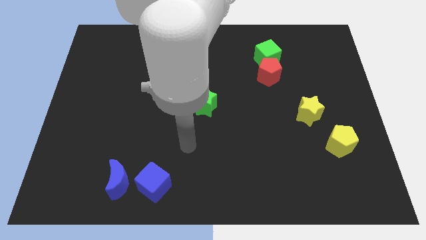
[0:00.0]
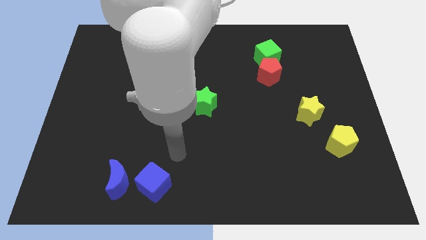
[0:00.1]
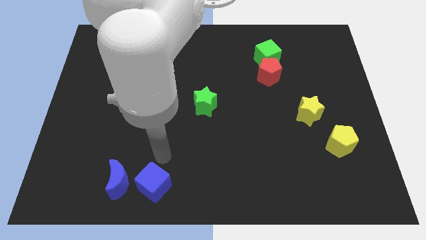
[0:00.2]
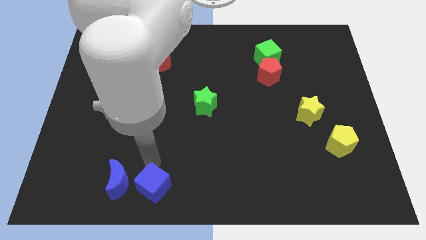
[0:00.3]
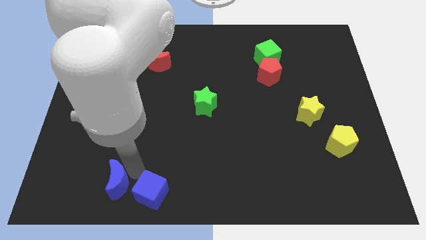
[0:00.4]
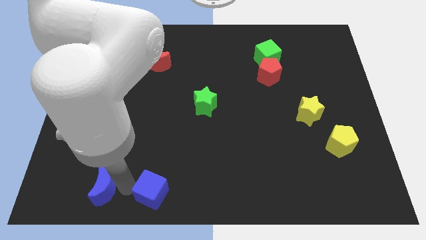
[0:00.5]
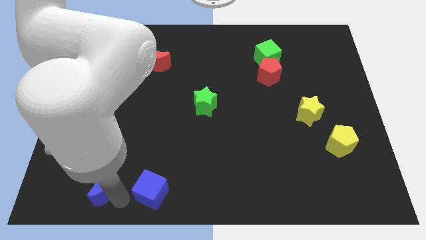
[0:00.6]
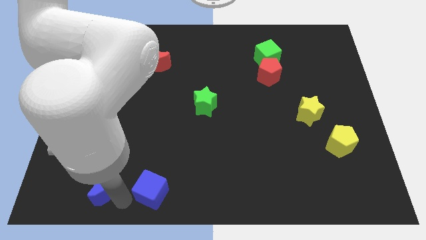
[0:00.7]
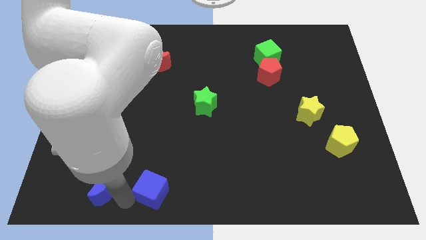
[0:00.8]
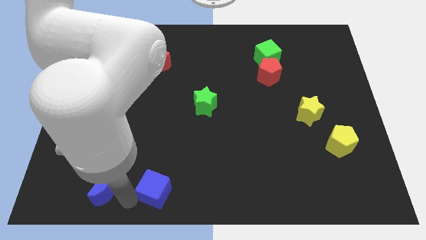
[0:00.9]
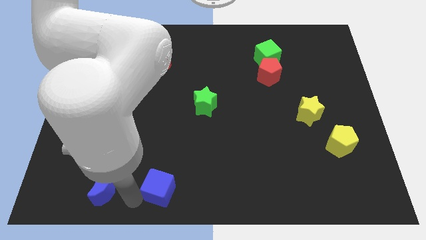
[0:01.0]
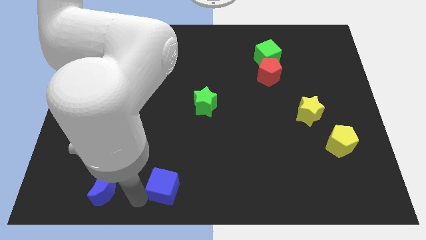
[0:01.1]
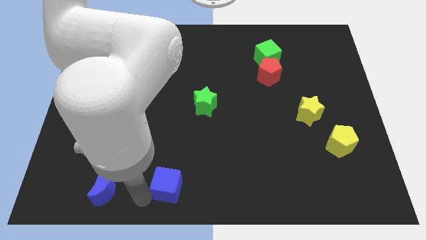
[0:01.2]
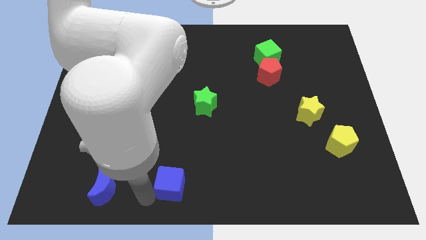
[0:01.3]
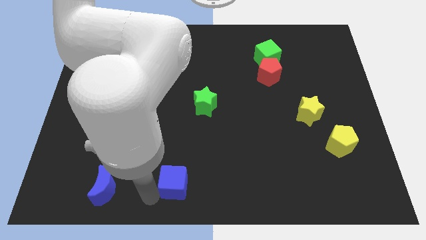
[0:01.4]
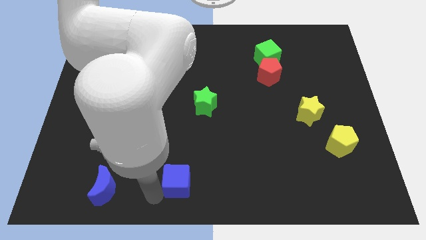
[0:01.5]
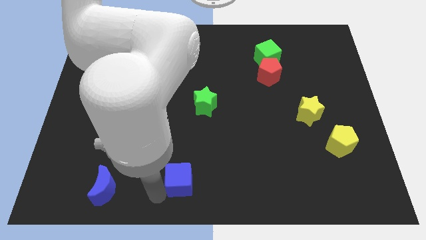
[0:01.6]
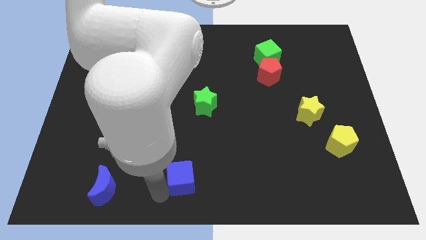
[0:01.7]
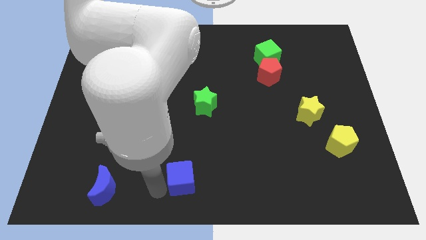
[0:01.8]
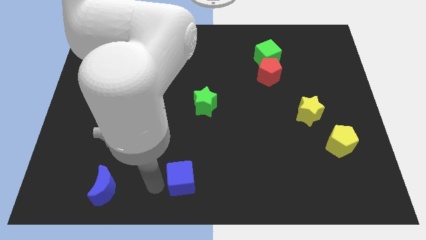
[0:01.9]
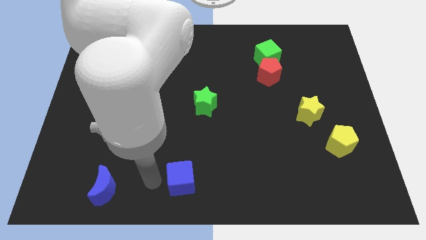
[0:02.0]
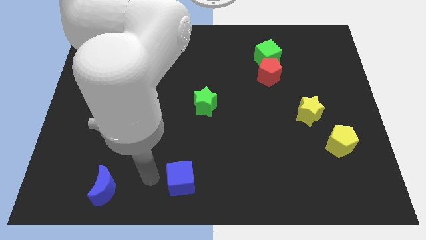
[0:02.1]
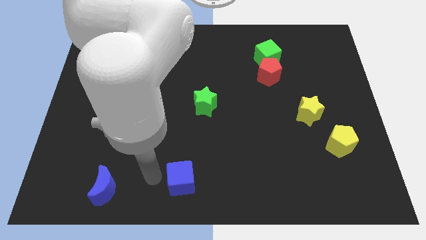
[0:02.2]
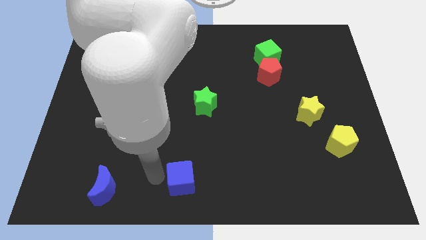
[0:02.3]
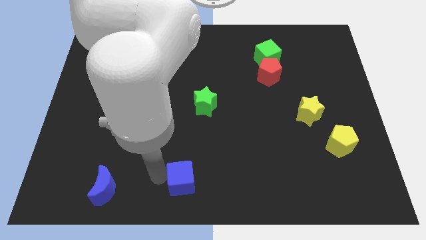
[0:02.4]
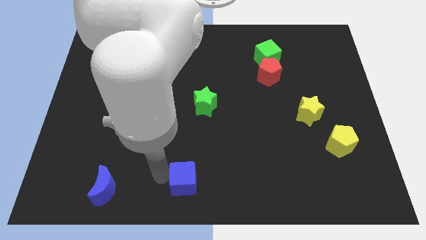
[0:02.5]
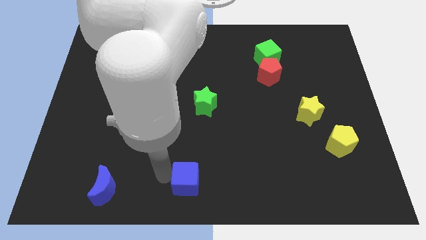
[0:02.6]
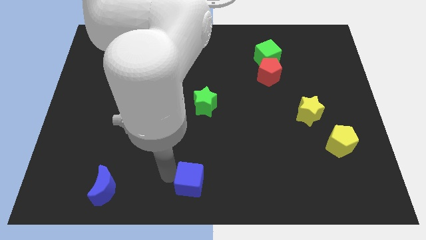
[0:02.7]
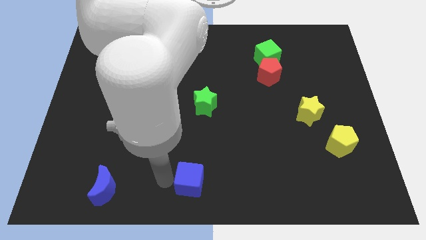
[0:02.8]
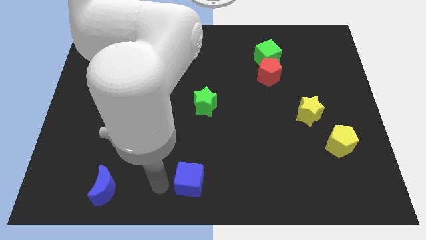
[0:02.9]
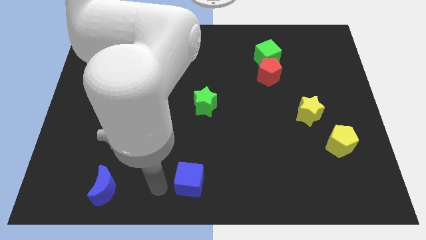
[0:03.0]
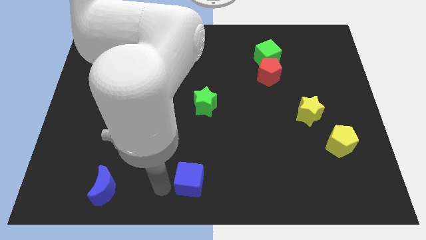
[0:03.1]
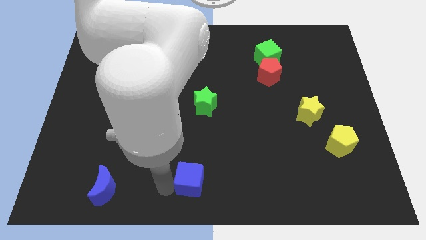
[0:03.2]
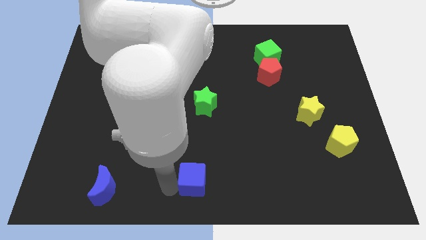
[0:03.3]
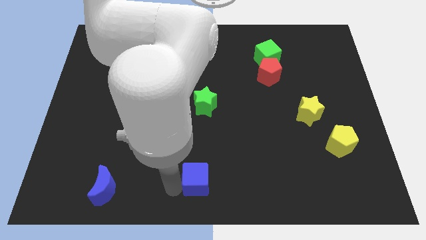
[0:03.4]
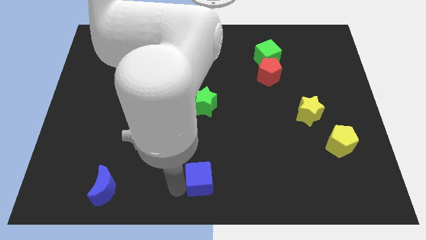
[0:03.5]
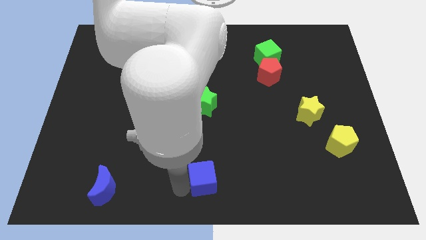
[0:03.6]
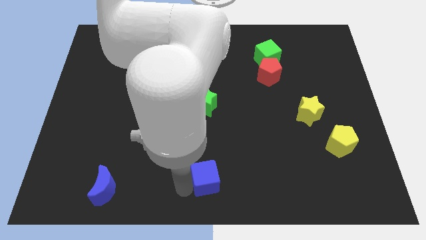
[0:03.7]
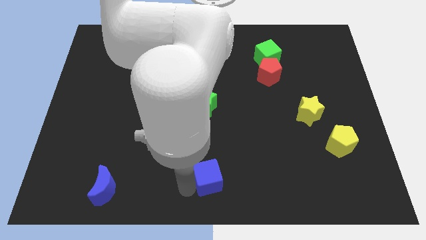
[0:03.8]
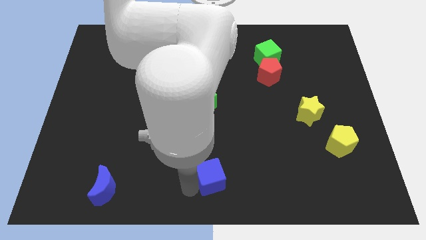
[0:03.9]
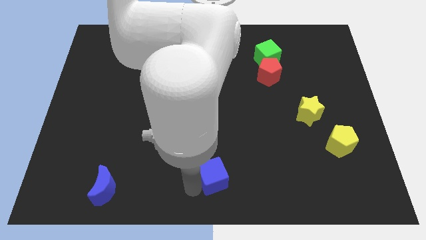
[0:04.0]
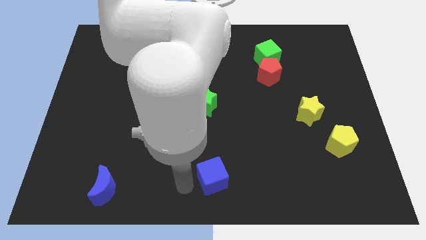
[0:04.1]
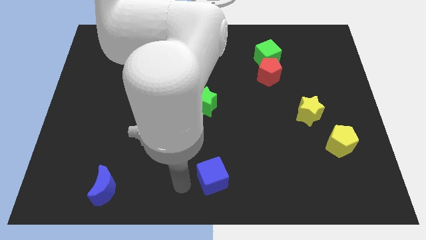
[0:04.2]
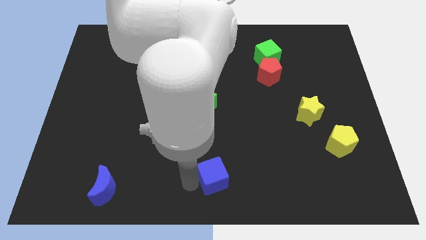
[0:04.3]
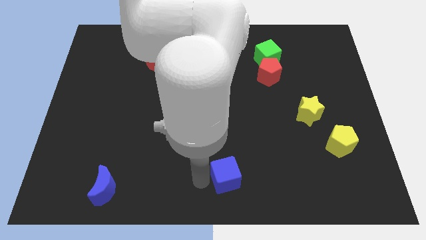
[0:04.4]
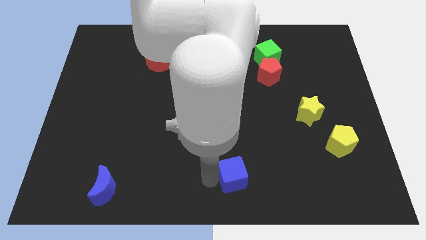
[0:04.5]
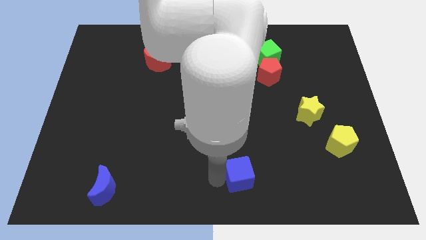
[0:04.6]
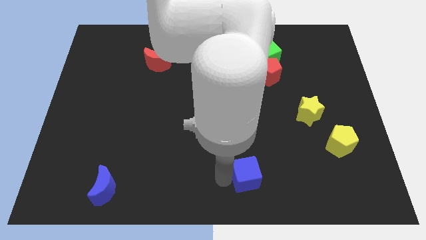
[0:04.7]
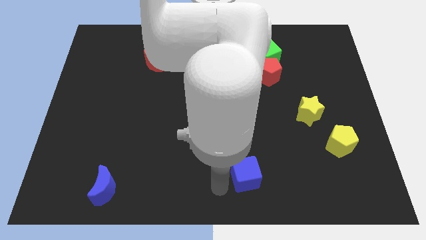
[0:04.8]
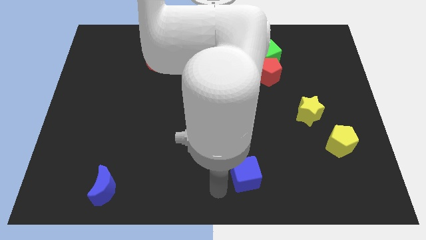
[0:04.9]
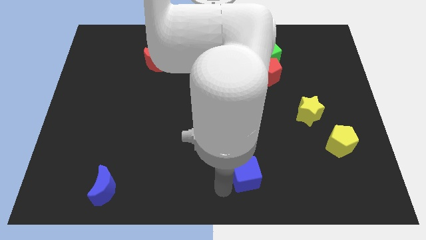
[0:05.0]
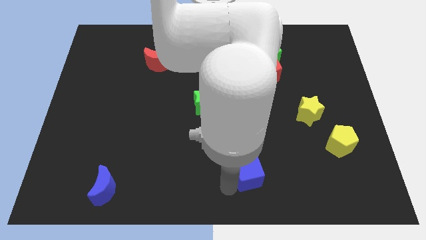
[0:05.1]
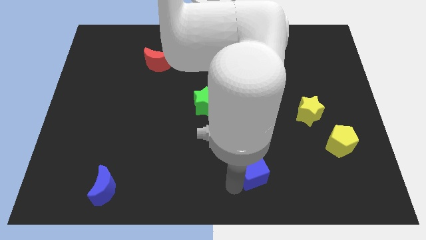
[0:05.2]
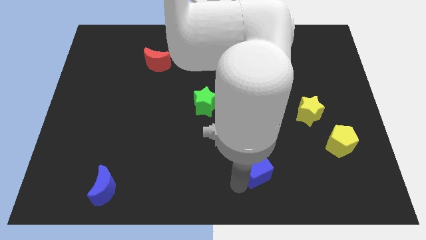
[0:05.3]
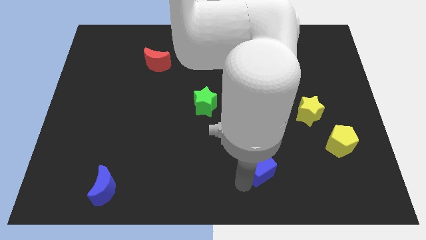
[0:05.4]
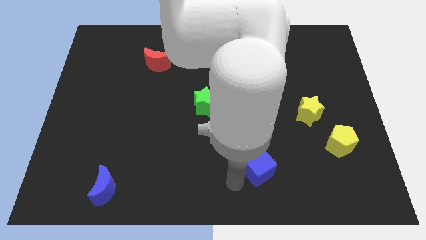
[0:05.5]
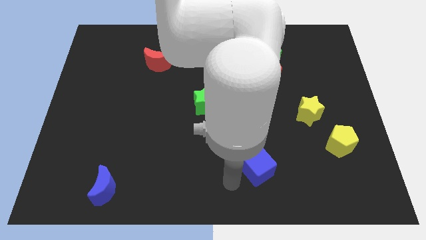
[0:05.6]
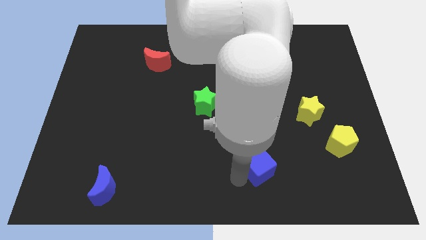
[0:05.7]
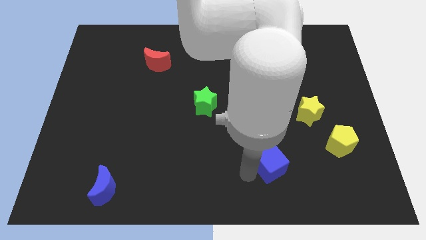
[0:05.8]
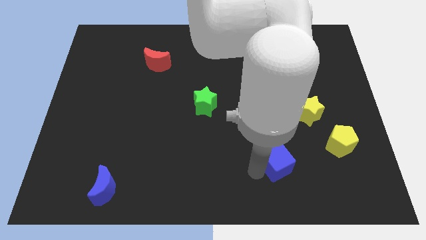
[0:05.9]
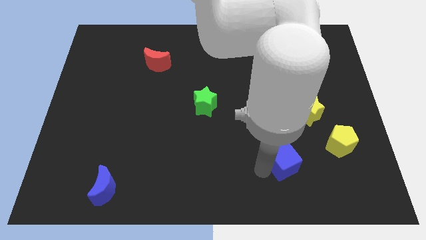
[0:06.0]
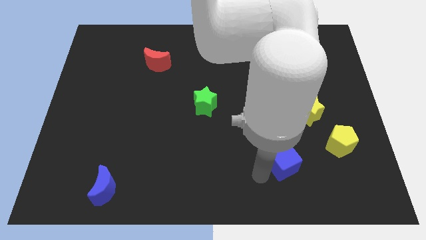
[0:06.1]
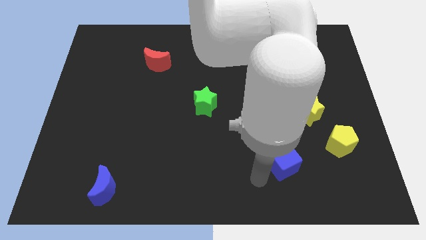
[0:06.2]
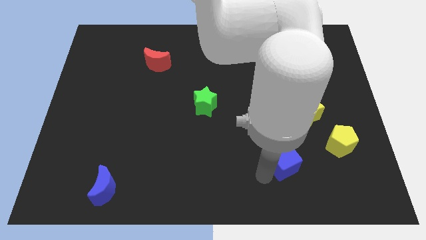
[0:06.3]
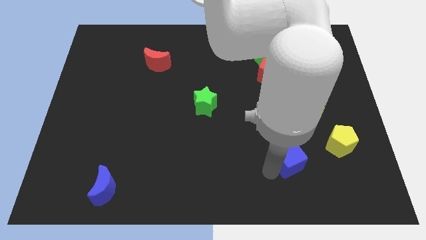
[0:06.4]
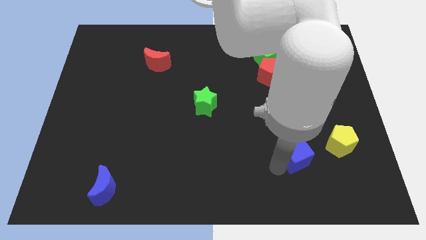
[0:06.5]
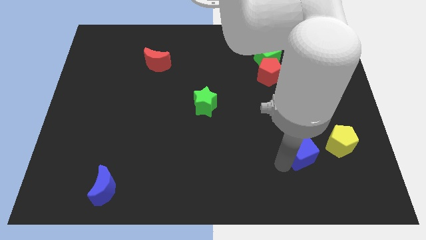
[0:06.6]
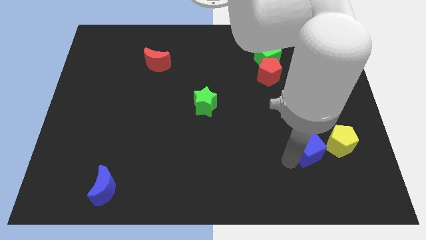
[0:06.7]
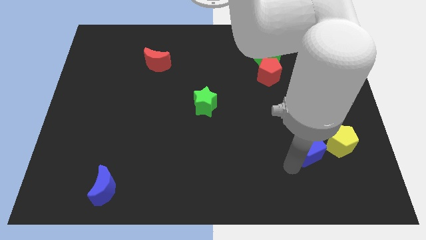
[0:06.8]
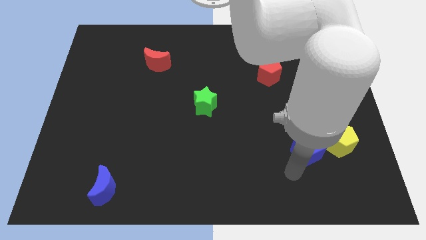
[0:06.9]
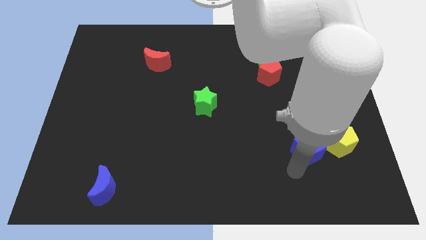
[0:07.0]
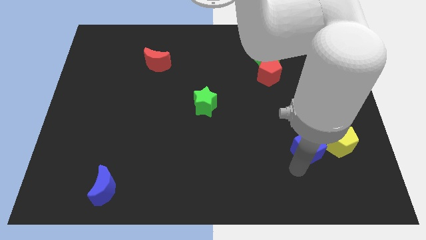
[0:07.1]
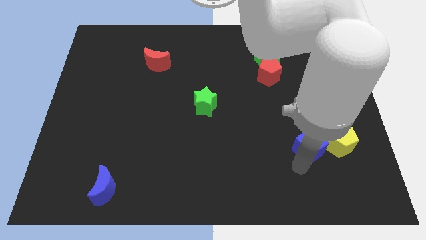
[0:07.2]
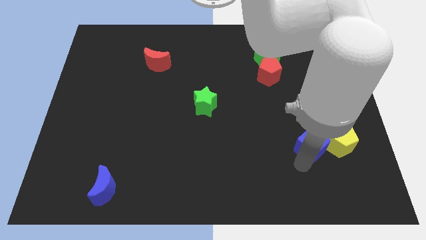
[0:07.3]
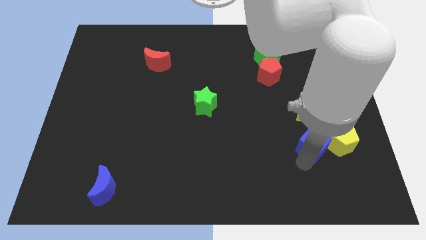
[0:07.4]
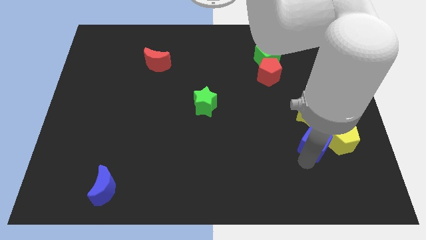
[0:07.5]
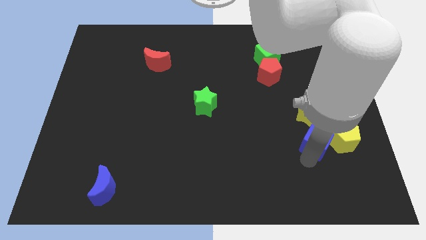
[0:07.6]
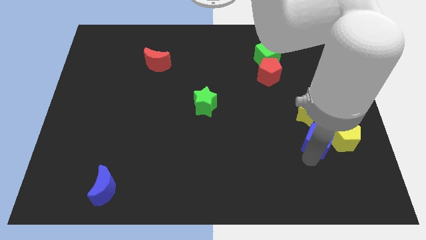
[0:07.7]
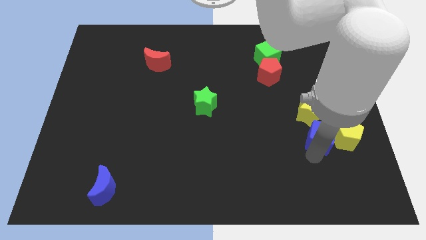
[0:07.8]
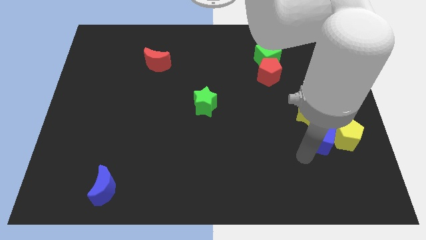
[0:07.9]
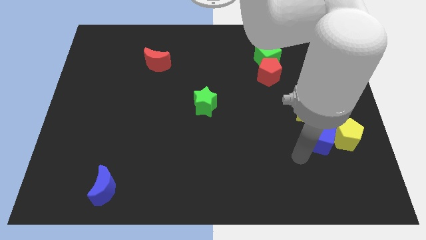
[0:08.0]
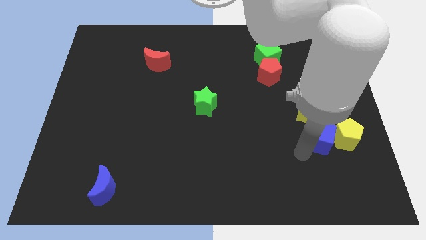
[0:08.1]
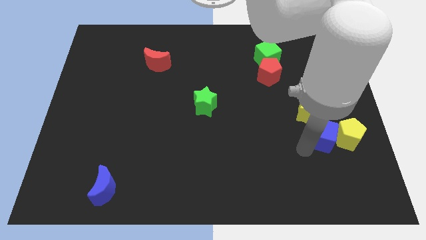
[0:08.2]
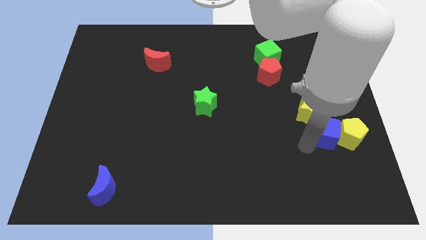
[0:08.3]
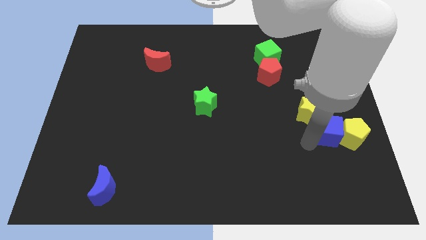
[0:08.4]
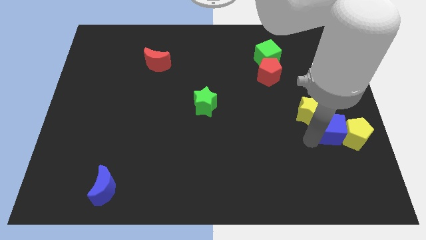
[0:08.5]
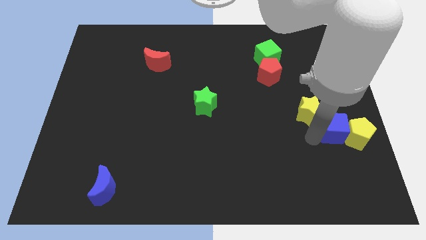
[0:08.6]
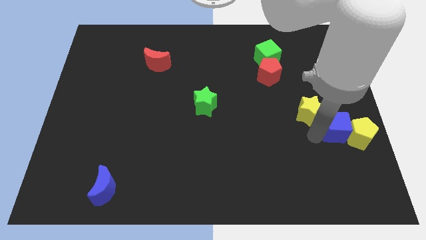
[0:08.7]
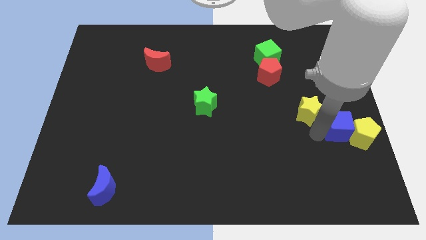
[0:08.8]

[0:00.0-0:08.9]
move the blue cube to the right side
